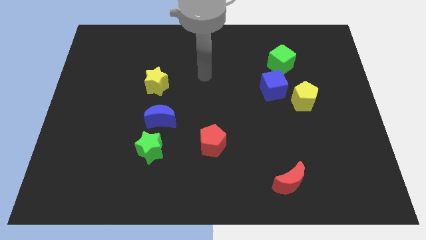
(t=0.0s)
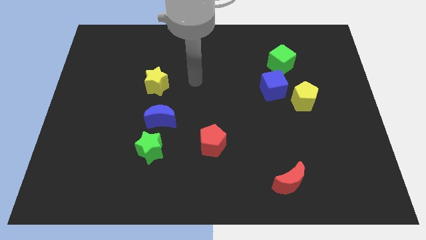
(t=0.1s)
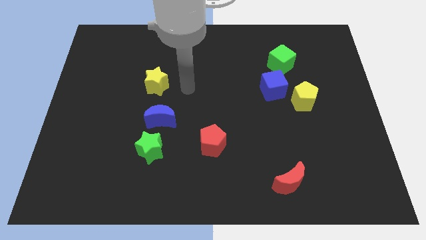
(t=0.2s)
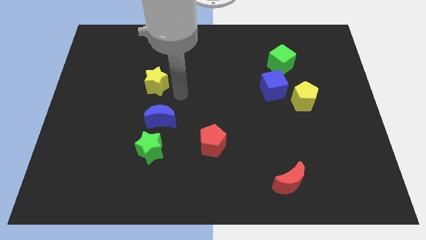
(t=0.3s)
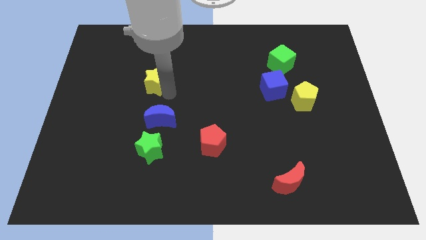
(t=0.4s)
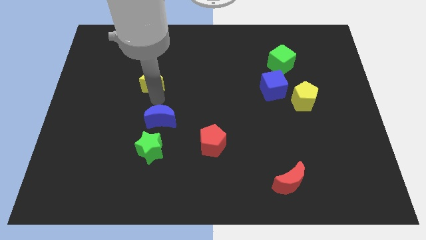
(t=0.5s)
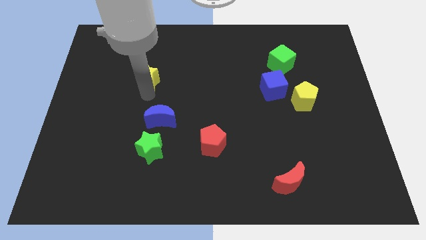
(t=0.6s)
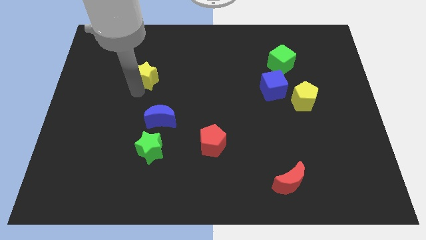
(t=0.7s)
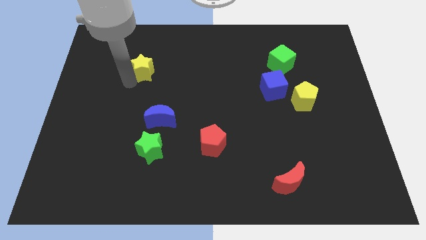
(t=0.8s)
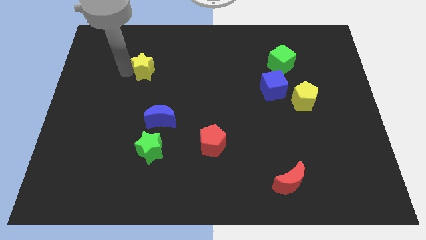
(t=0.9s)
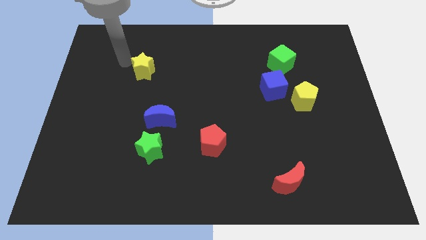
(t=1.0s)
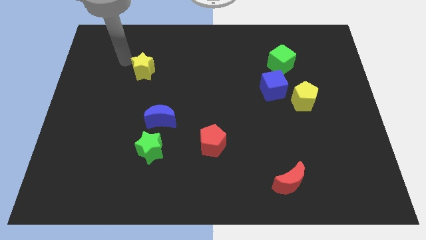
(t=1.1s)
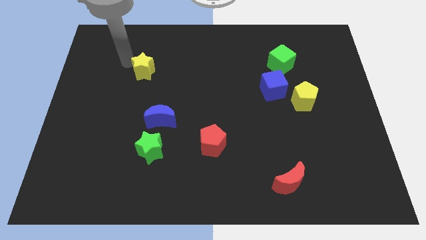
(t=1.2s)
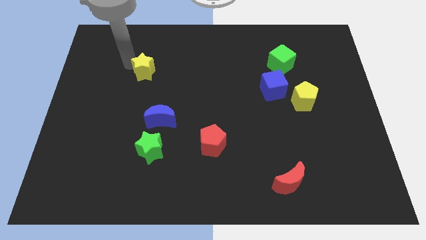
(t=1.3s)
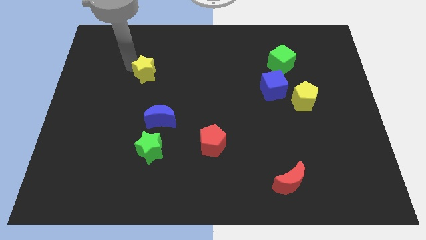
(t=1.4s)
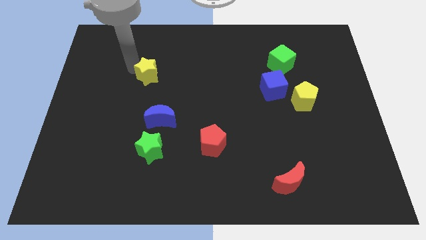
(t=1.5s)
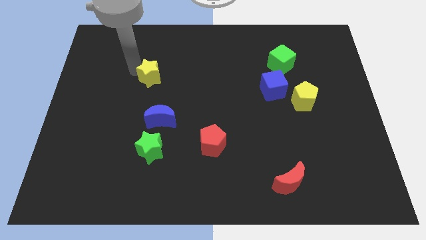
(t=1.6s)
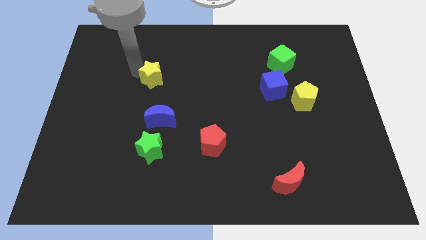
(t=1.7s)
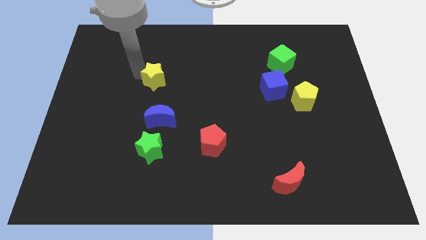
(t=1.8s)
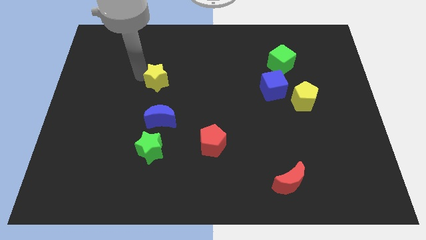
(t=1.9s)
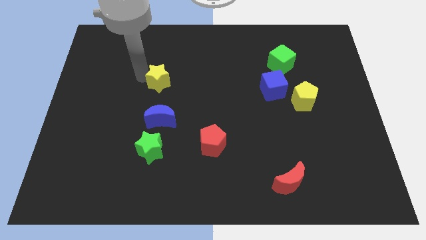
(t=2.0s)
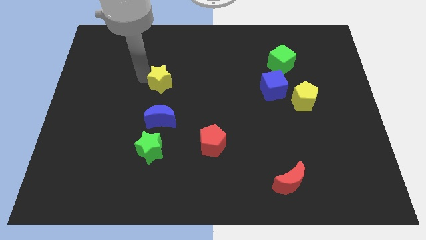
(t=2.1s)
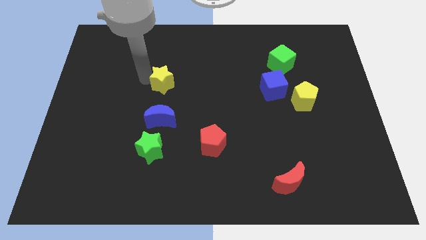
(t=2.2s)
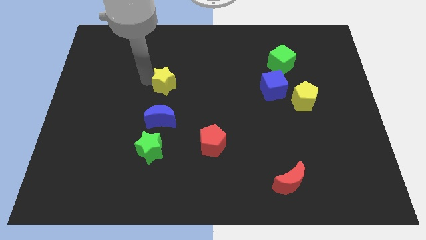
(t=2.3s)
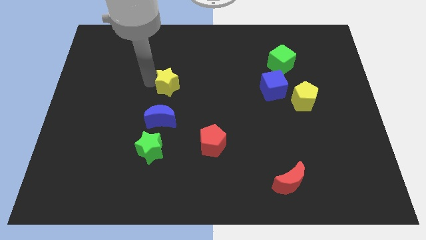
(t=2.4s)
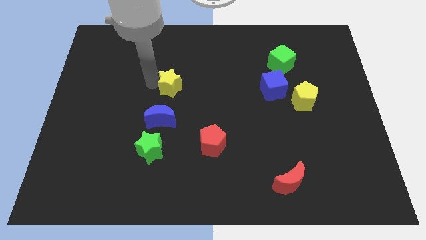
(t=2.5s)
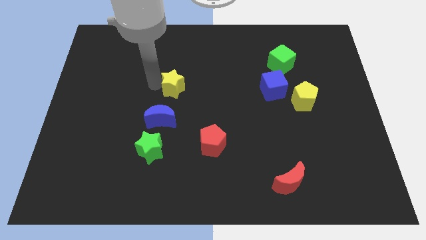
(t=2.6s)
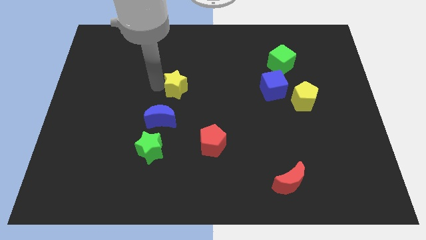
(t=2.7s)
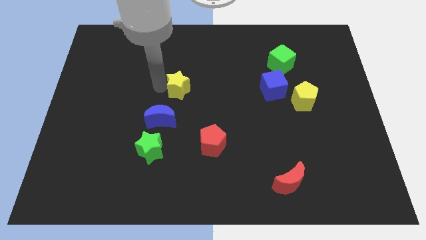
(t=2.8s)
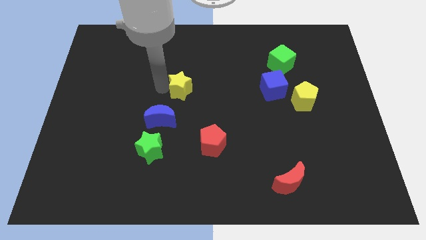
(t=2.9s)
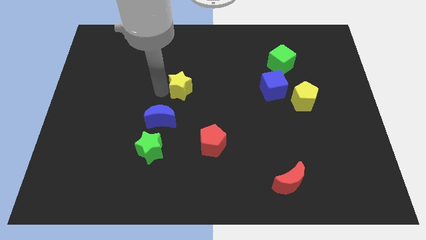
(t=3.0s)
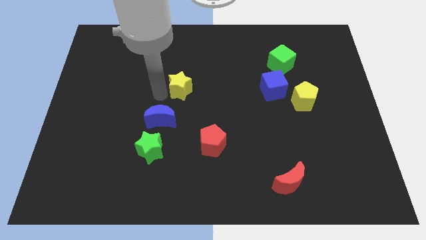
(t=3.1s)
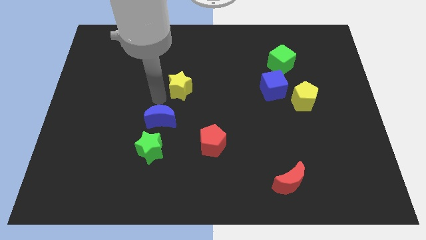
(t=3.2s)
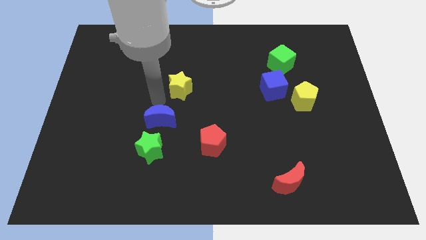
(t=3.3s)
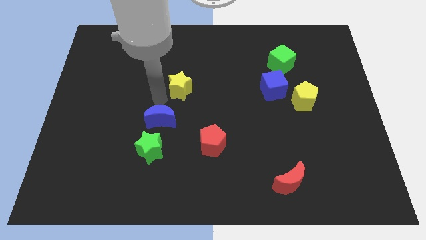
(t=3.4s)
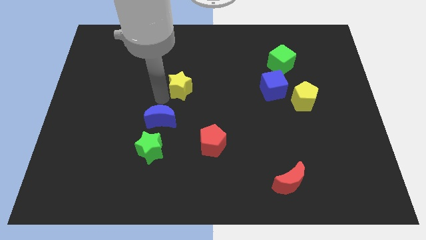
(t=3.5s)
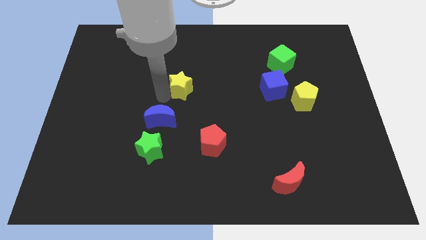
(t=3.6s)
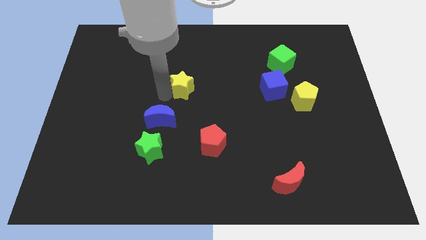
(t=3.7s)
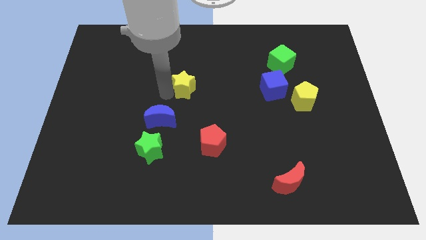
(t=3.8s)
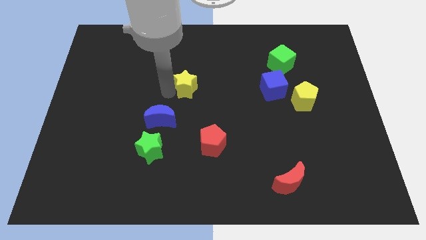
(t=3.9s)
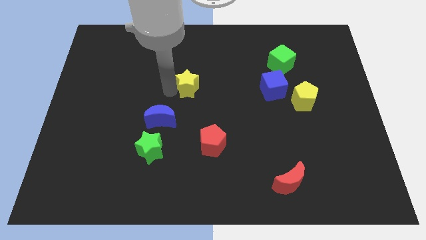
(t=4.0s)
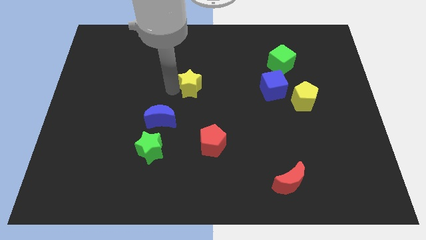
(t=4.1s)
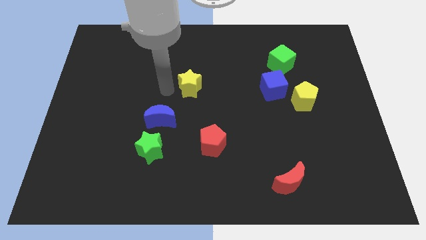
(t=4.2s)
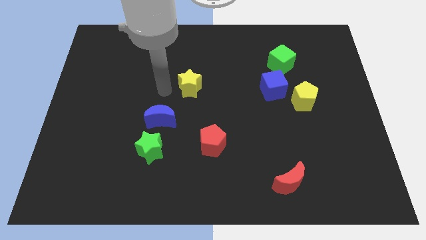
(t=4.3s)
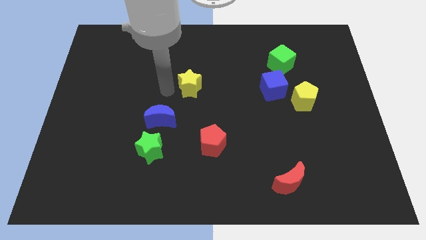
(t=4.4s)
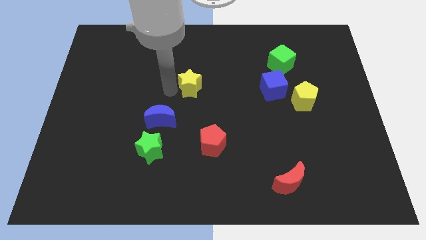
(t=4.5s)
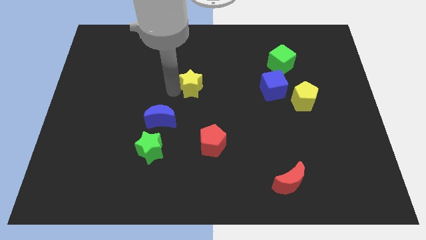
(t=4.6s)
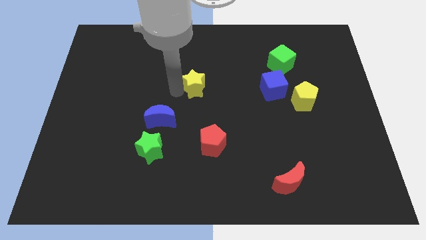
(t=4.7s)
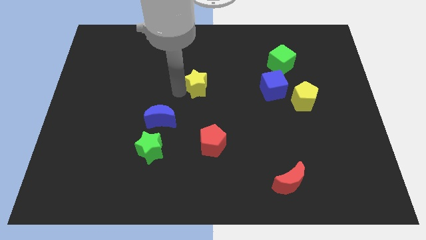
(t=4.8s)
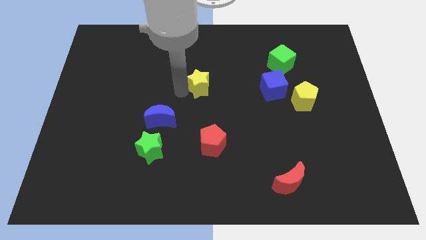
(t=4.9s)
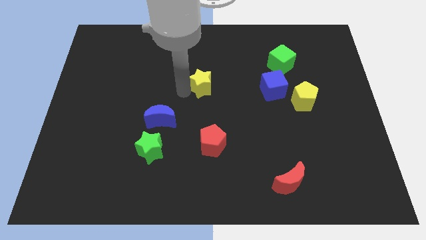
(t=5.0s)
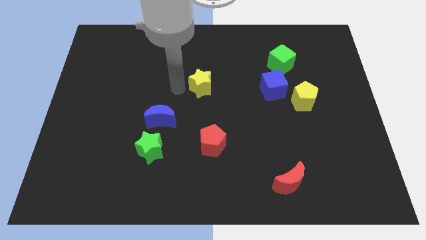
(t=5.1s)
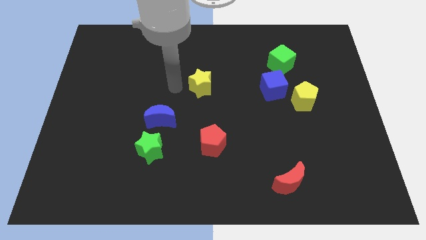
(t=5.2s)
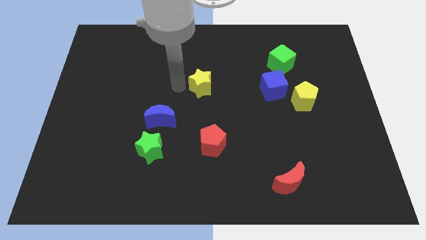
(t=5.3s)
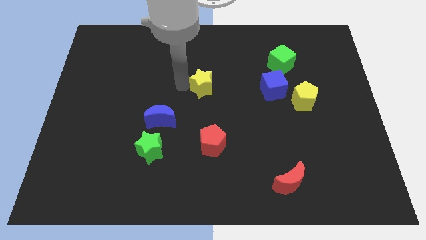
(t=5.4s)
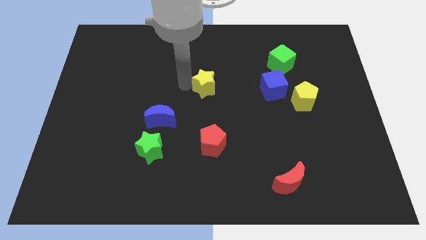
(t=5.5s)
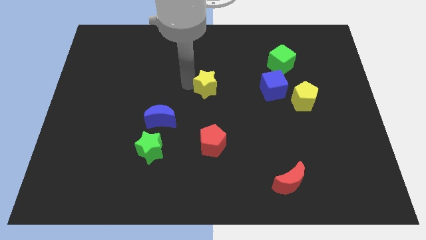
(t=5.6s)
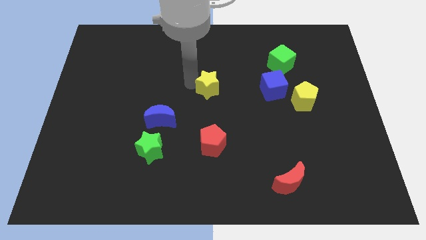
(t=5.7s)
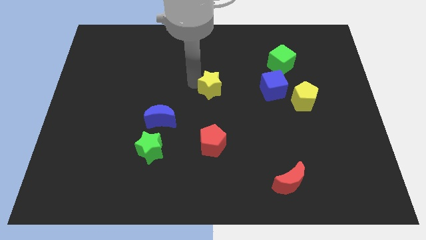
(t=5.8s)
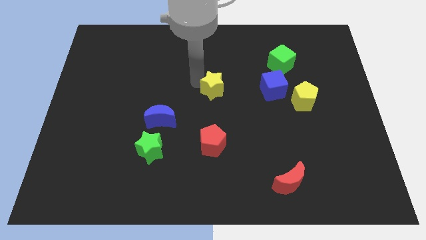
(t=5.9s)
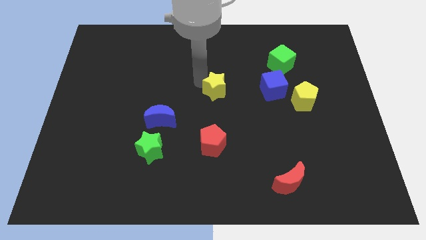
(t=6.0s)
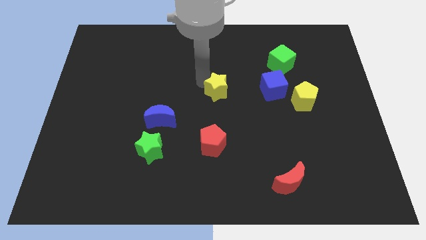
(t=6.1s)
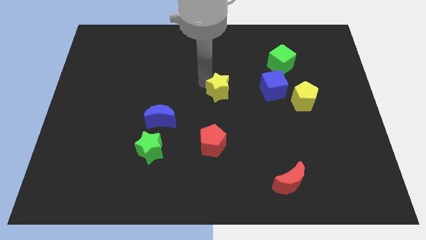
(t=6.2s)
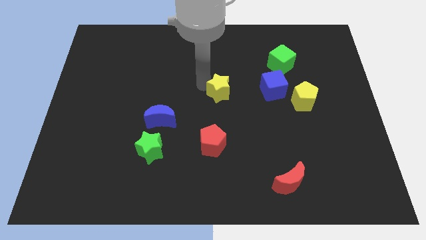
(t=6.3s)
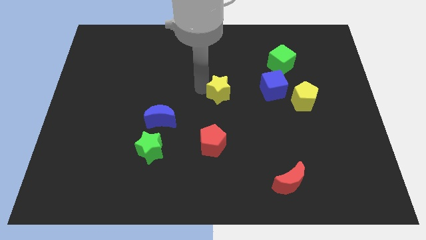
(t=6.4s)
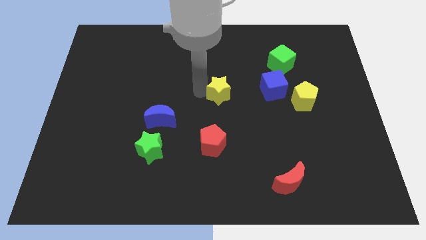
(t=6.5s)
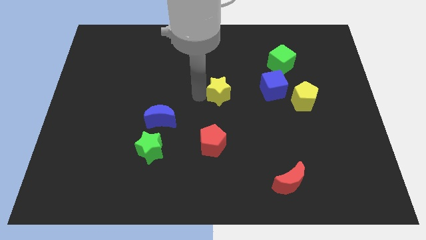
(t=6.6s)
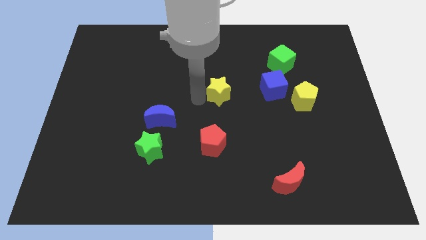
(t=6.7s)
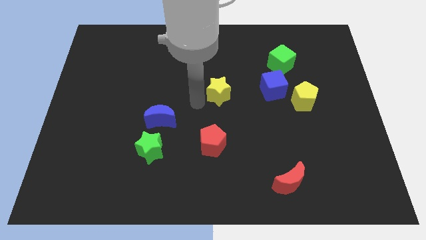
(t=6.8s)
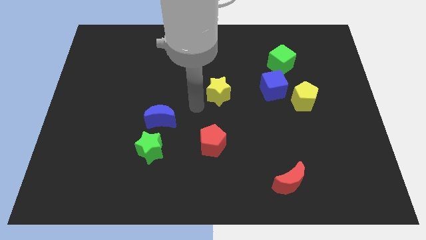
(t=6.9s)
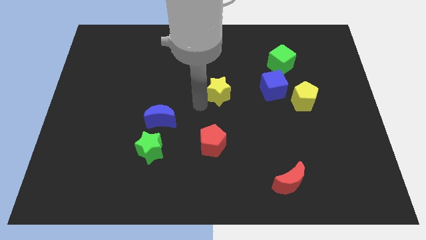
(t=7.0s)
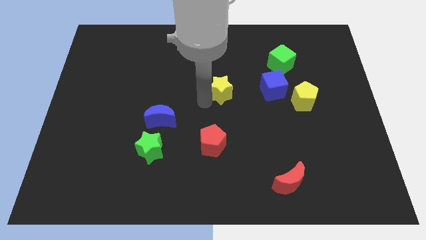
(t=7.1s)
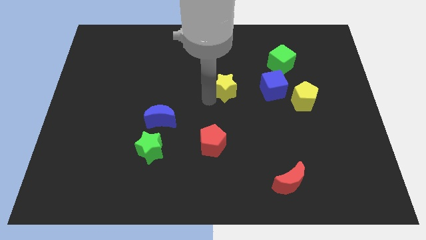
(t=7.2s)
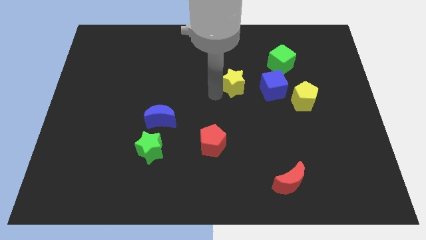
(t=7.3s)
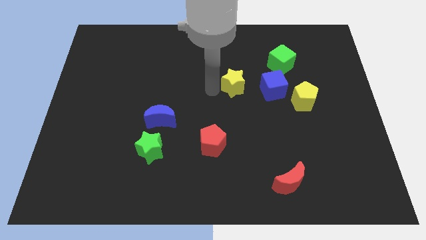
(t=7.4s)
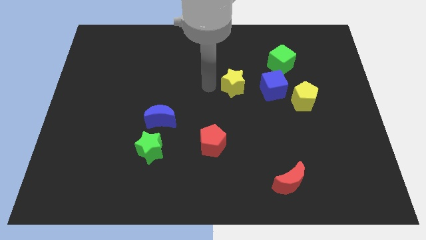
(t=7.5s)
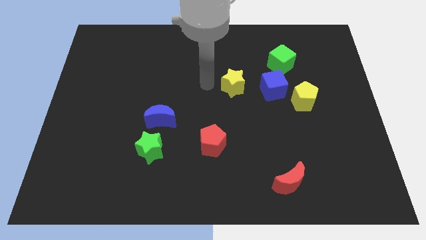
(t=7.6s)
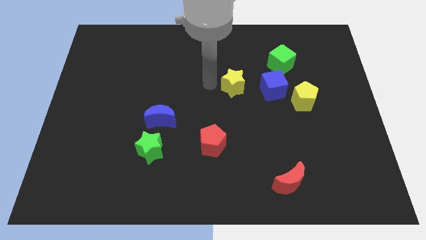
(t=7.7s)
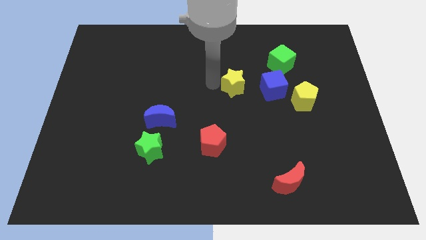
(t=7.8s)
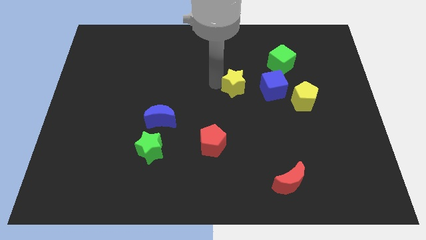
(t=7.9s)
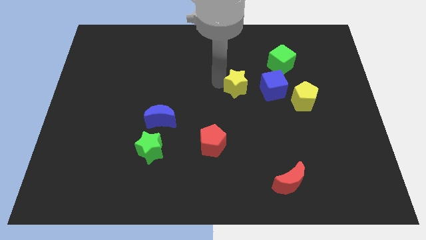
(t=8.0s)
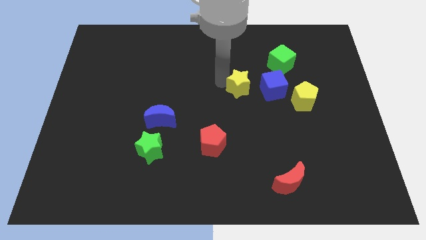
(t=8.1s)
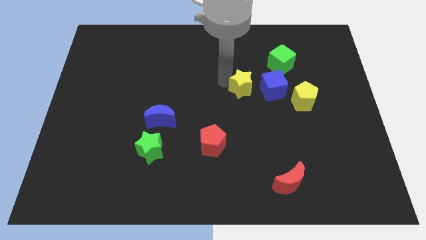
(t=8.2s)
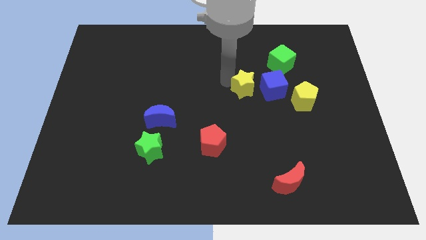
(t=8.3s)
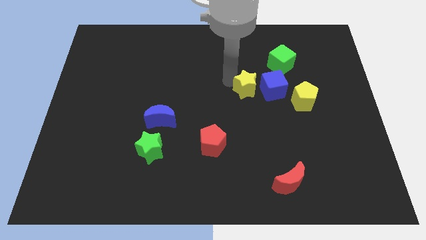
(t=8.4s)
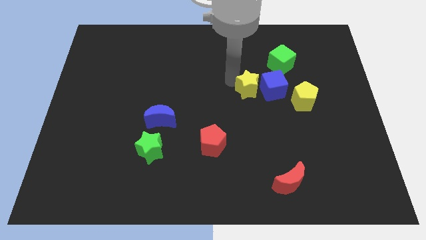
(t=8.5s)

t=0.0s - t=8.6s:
put the yellow star close to the blue cube
